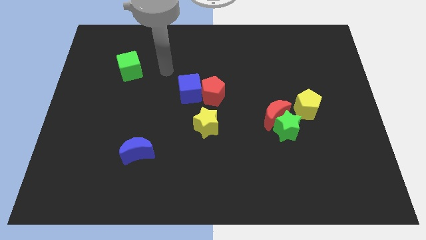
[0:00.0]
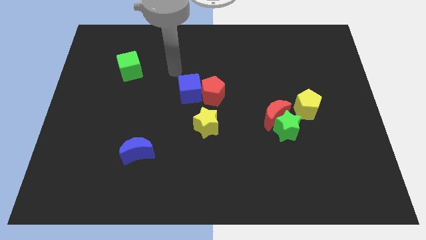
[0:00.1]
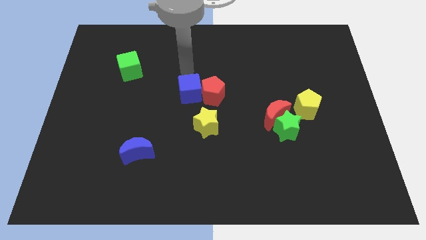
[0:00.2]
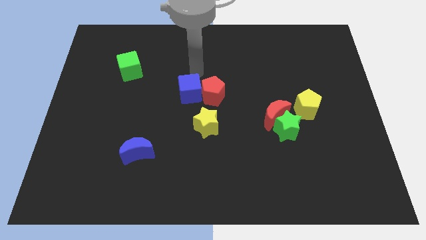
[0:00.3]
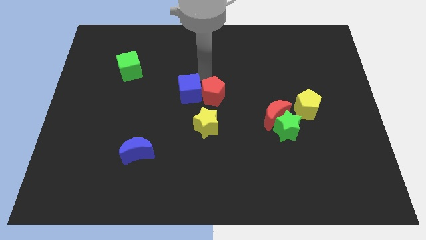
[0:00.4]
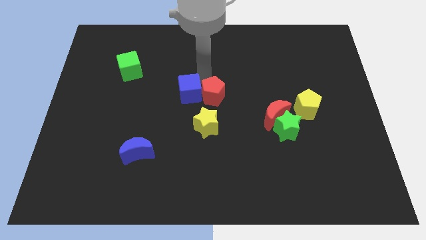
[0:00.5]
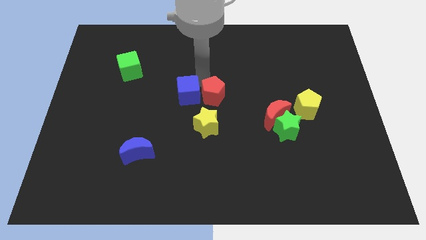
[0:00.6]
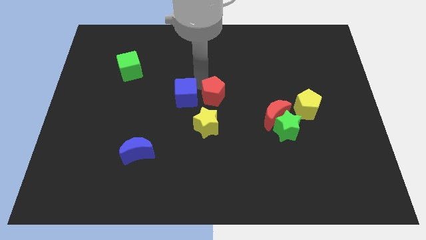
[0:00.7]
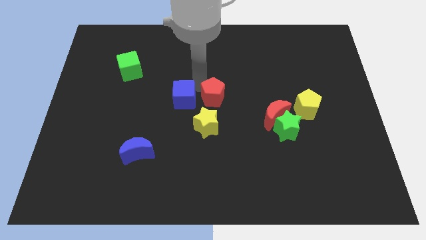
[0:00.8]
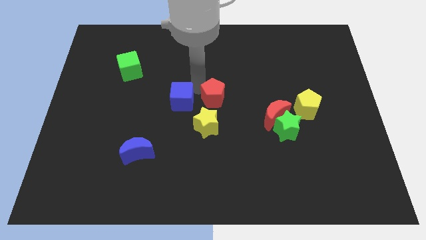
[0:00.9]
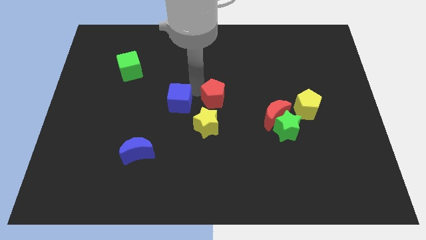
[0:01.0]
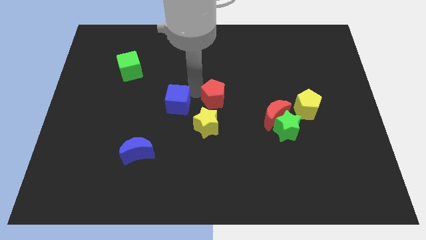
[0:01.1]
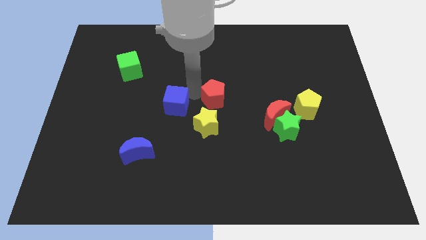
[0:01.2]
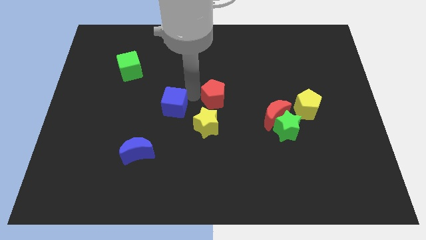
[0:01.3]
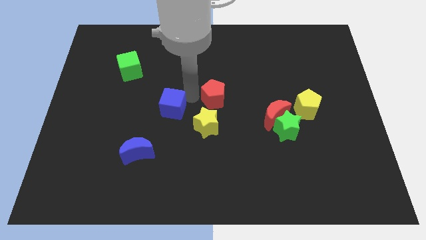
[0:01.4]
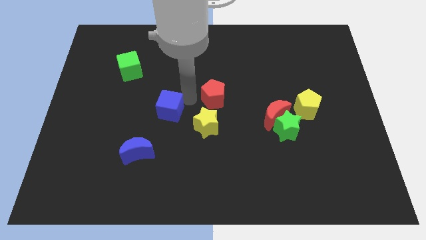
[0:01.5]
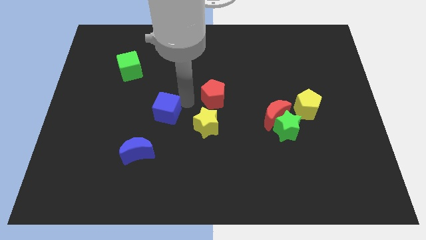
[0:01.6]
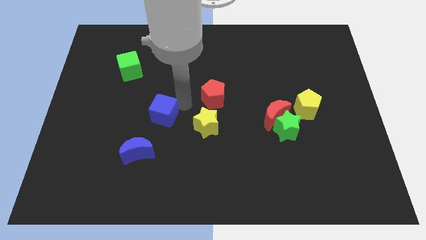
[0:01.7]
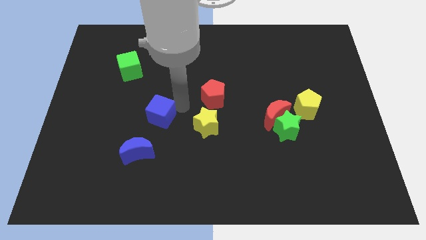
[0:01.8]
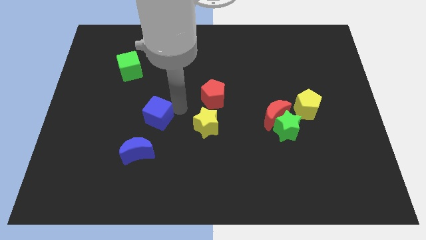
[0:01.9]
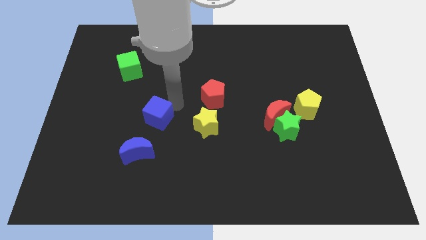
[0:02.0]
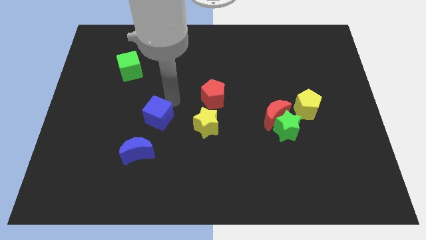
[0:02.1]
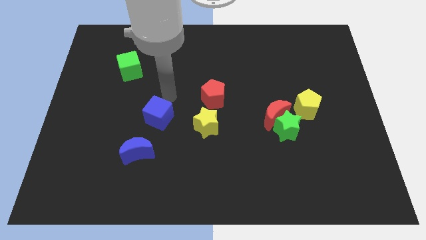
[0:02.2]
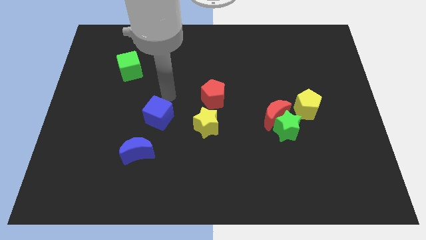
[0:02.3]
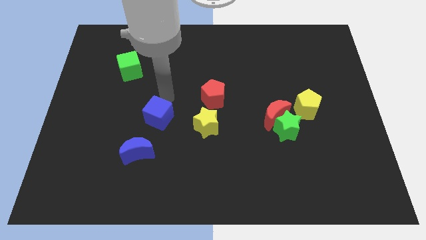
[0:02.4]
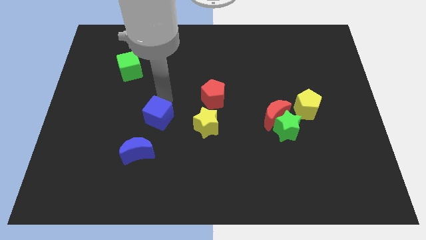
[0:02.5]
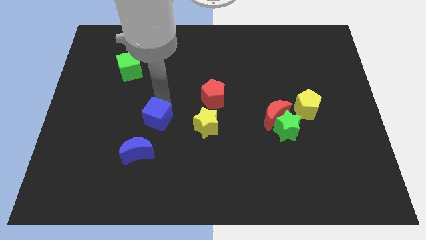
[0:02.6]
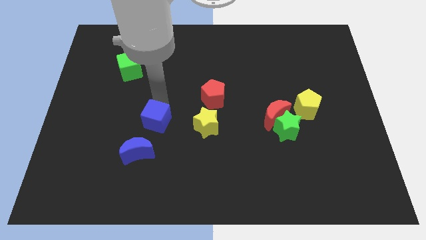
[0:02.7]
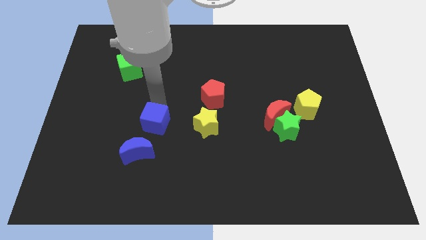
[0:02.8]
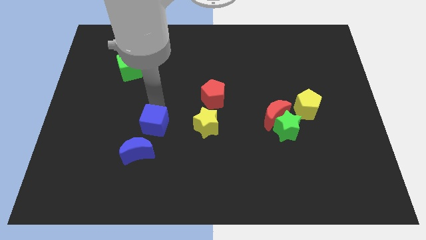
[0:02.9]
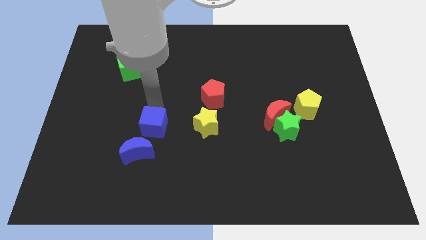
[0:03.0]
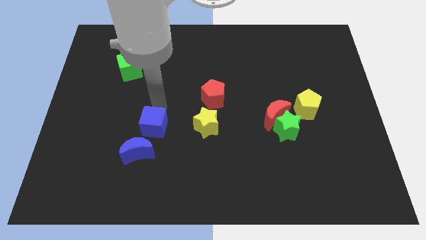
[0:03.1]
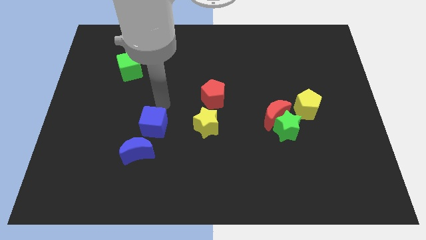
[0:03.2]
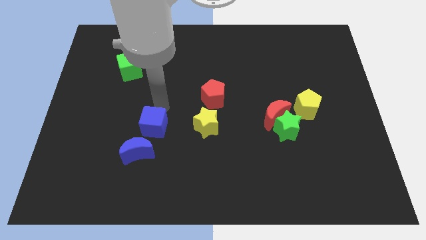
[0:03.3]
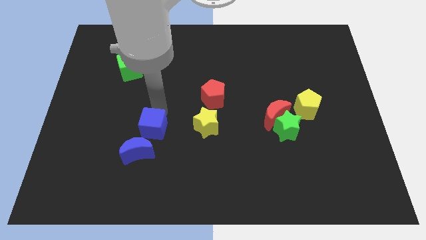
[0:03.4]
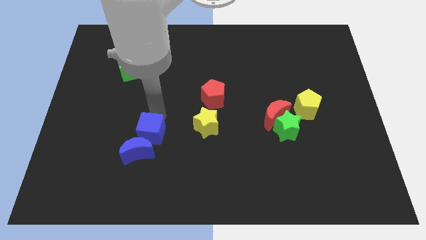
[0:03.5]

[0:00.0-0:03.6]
move the blue cube close to the blue moon

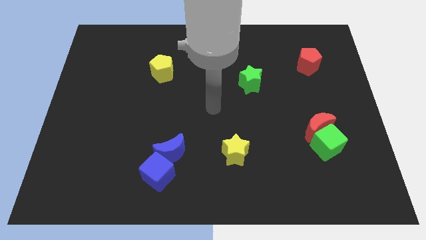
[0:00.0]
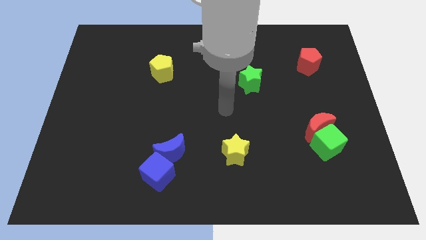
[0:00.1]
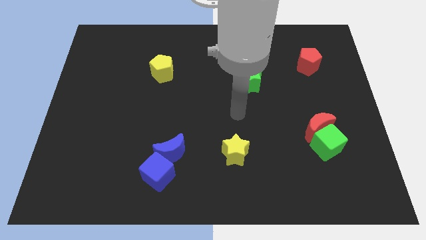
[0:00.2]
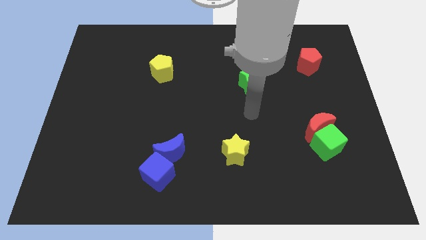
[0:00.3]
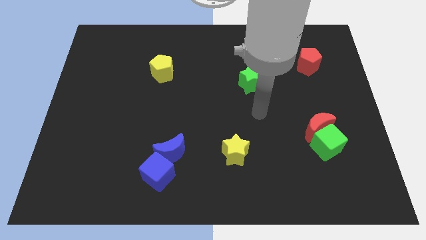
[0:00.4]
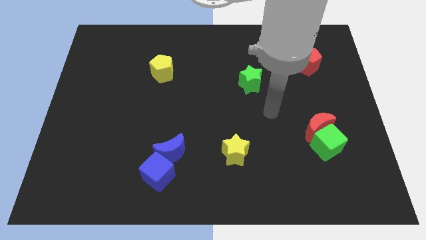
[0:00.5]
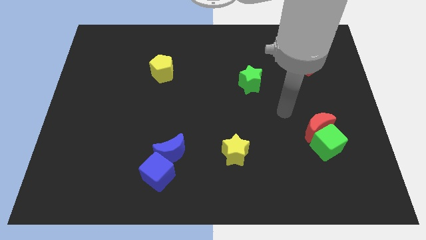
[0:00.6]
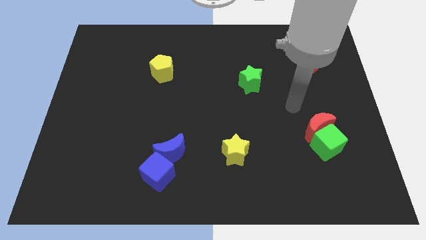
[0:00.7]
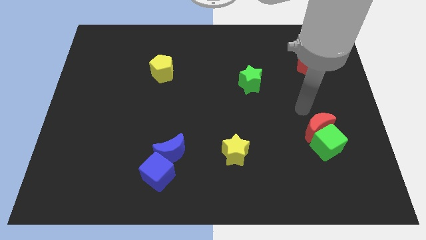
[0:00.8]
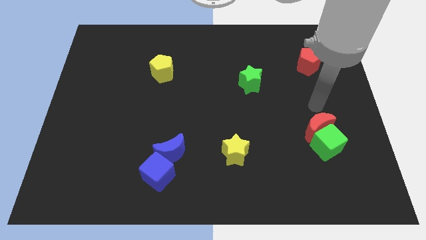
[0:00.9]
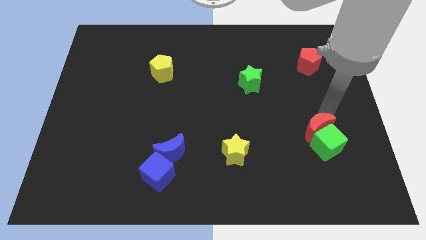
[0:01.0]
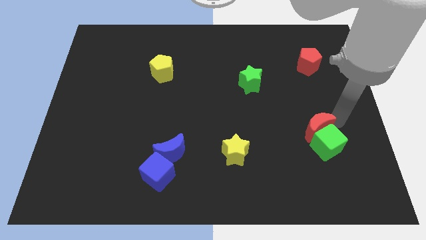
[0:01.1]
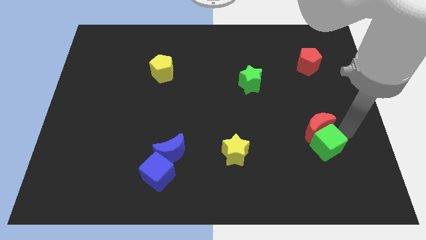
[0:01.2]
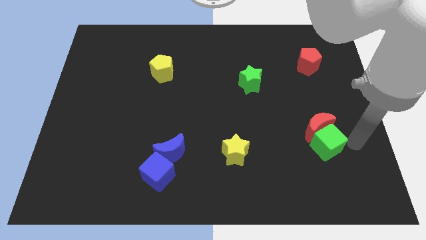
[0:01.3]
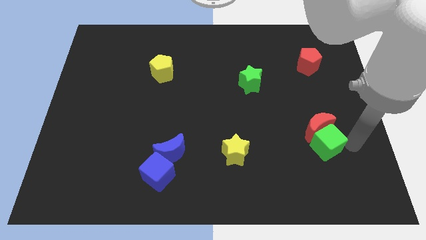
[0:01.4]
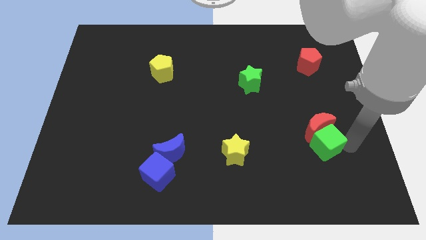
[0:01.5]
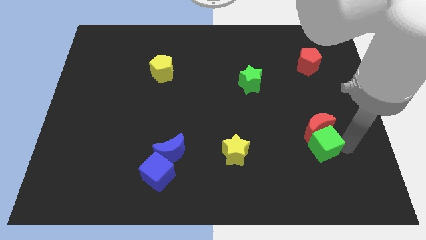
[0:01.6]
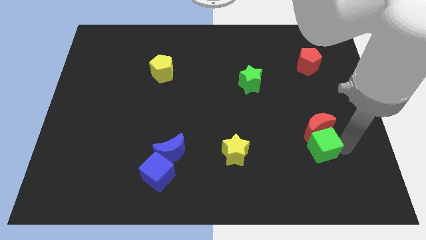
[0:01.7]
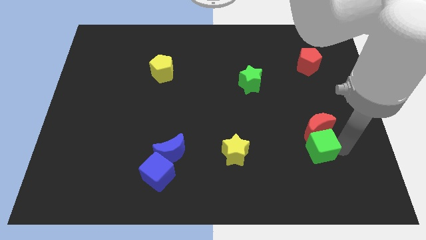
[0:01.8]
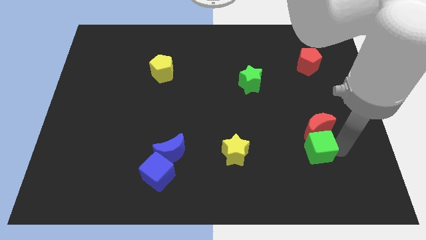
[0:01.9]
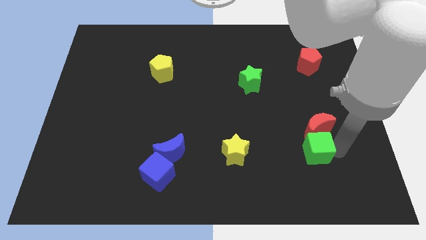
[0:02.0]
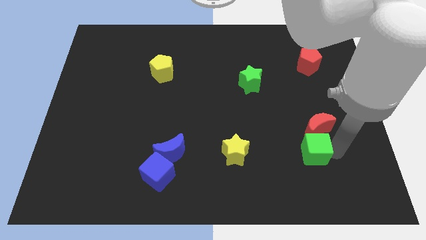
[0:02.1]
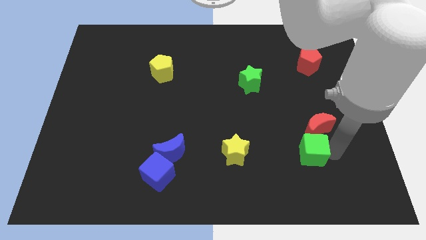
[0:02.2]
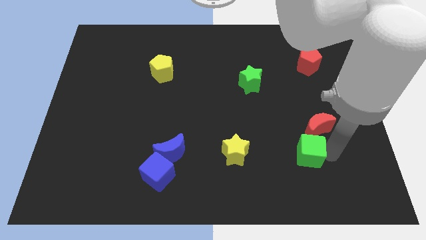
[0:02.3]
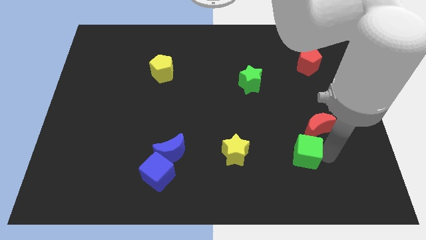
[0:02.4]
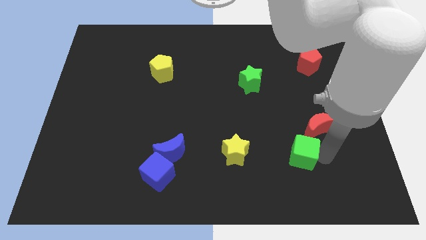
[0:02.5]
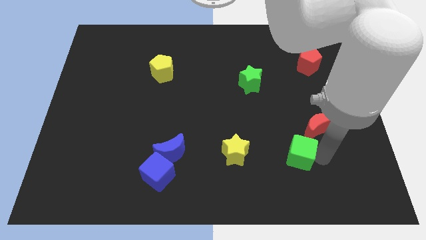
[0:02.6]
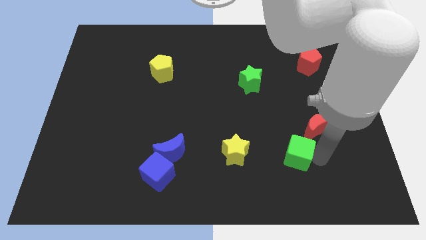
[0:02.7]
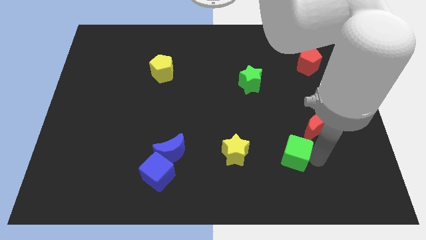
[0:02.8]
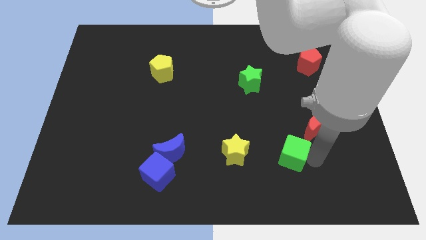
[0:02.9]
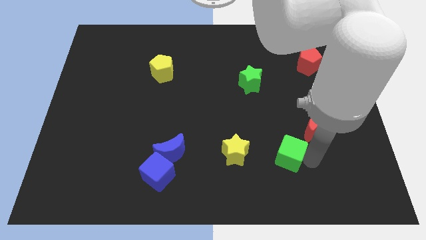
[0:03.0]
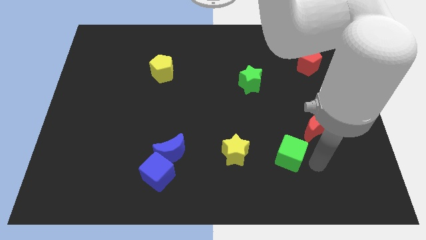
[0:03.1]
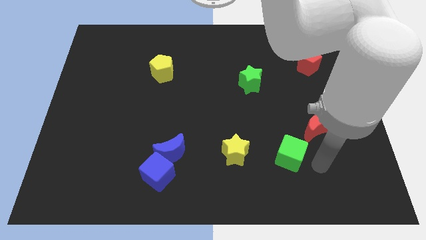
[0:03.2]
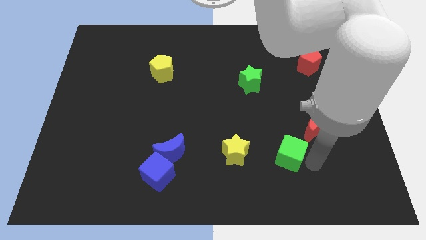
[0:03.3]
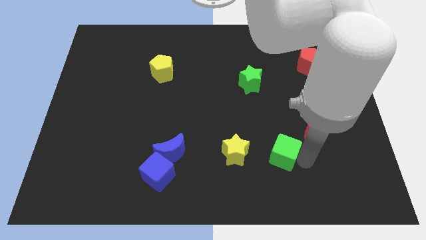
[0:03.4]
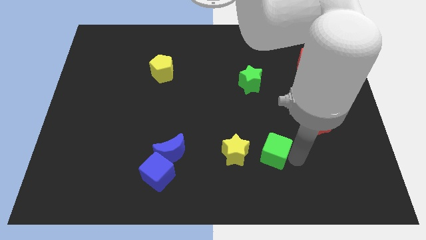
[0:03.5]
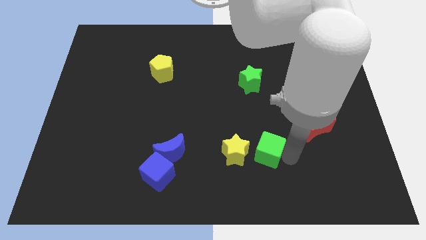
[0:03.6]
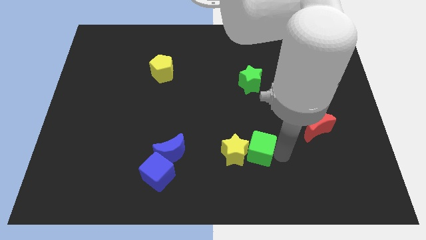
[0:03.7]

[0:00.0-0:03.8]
put the green cube to the yellow star
